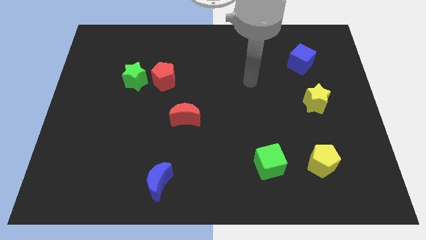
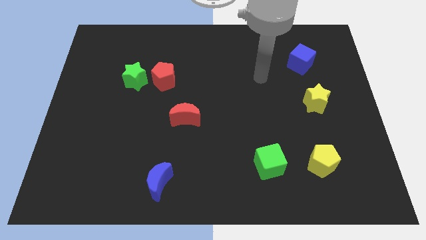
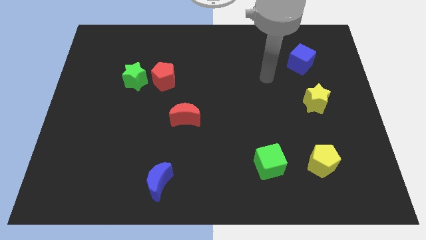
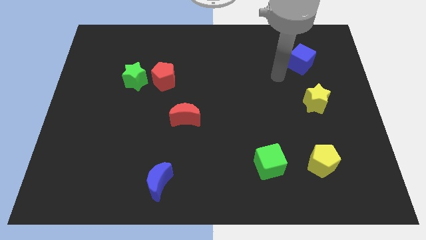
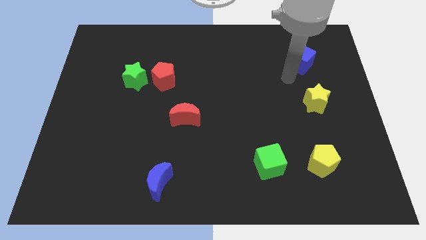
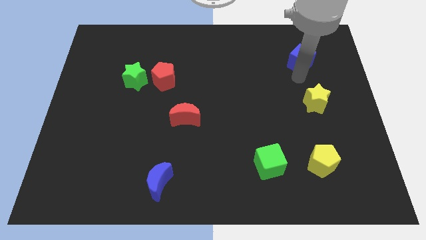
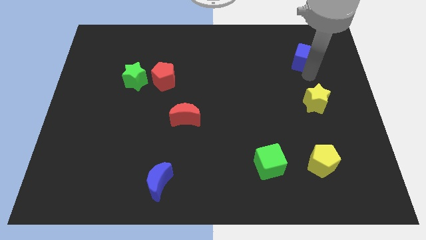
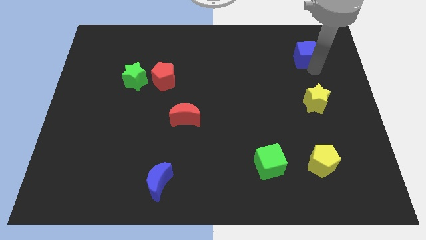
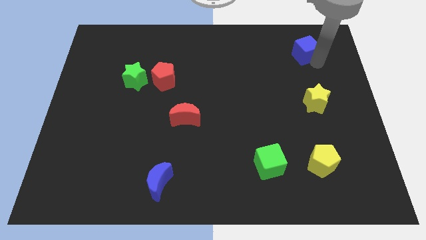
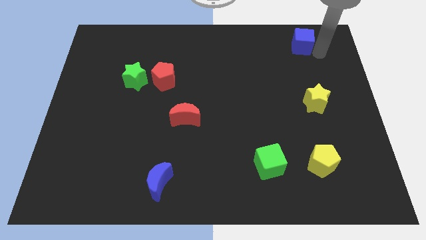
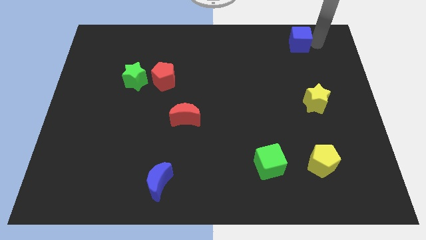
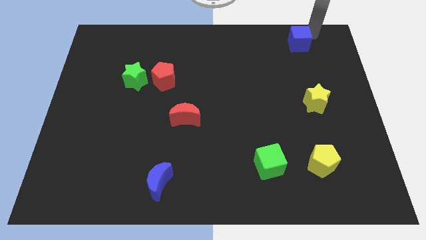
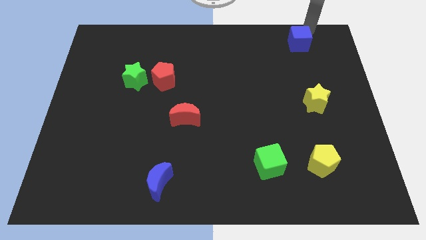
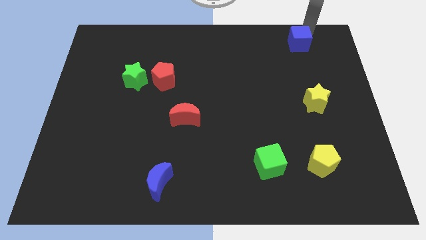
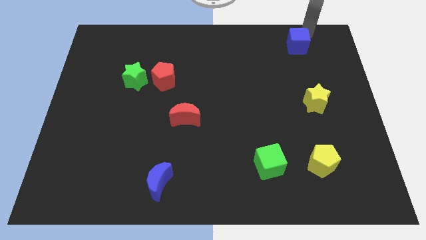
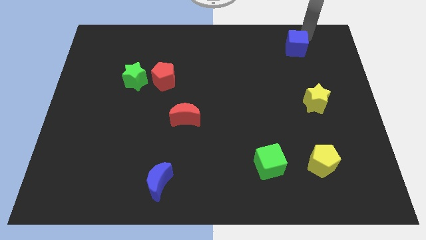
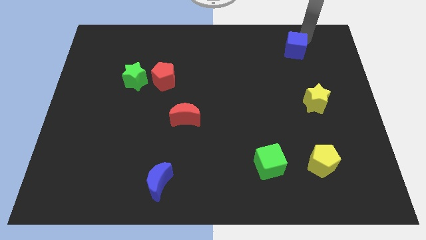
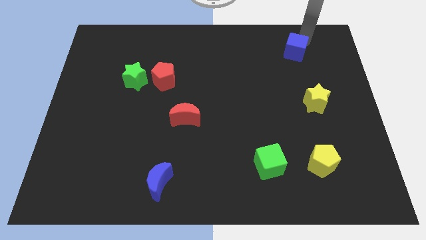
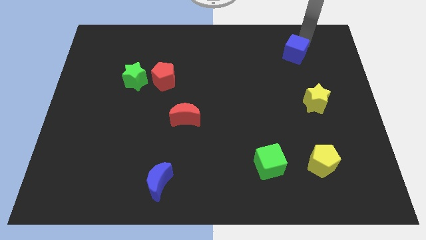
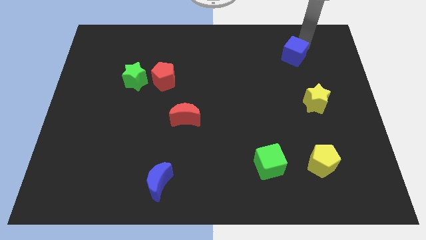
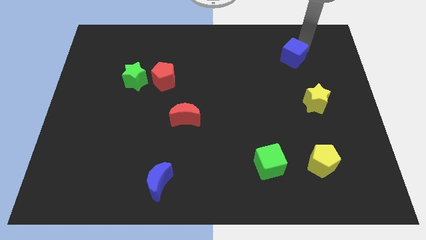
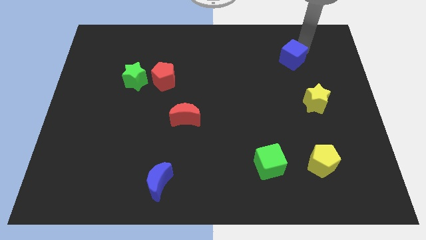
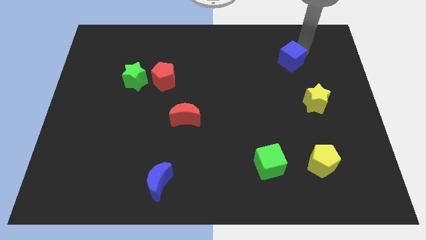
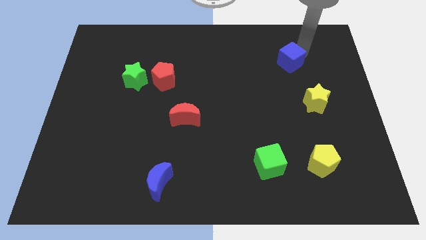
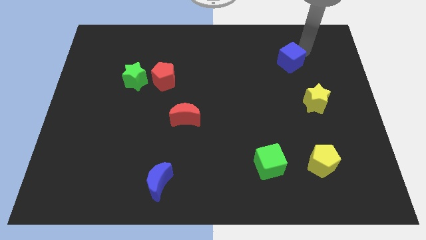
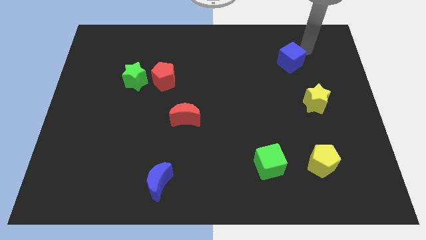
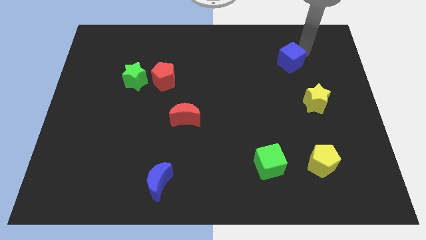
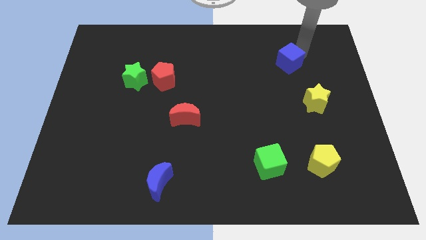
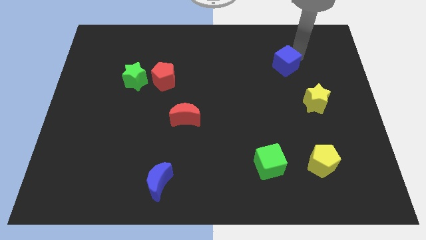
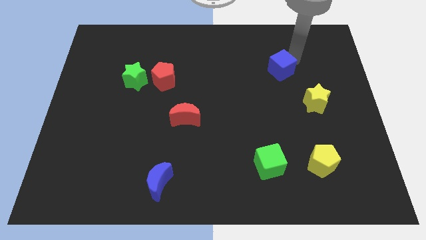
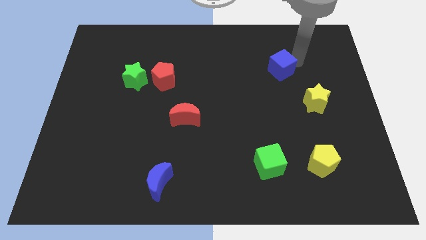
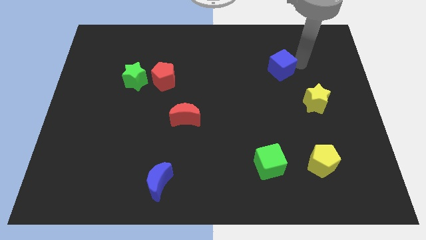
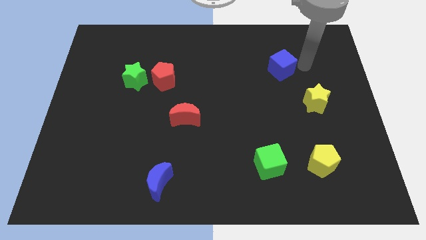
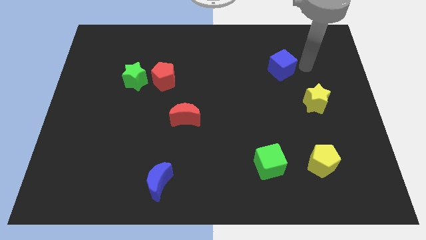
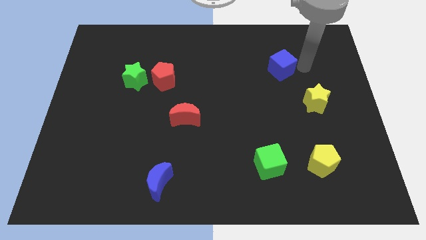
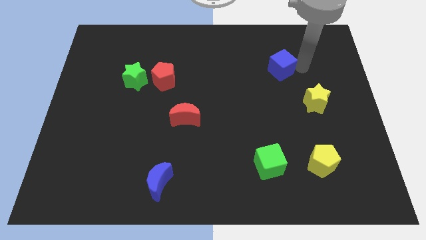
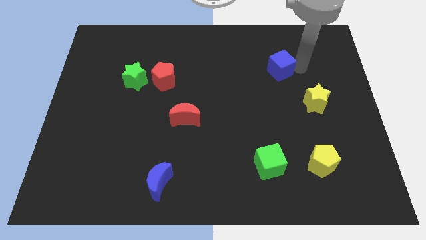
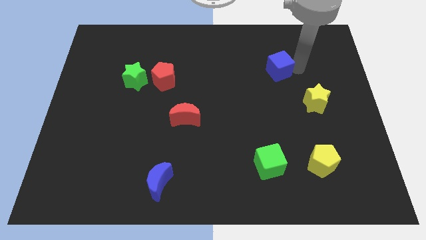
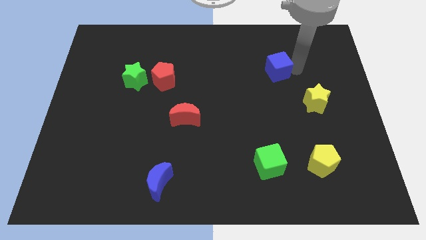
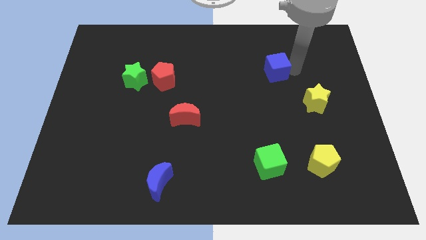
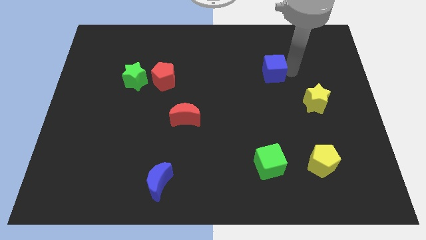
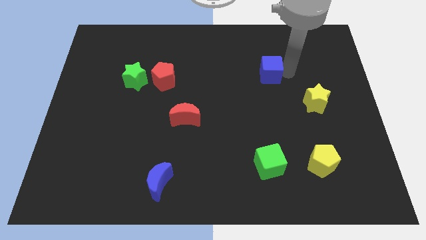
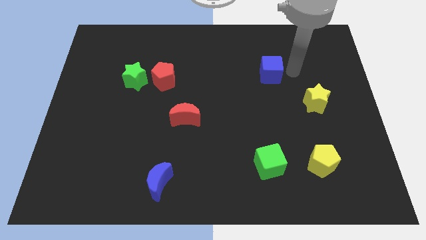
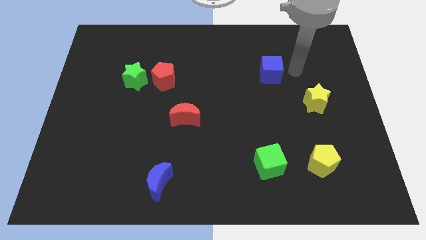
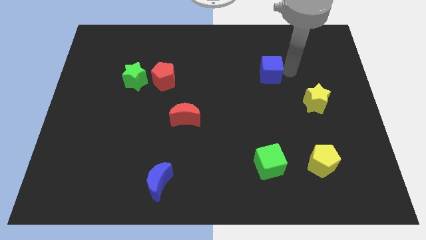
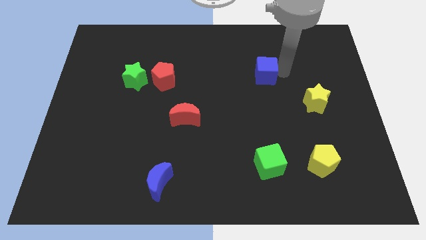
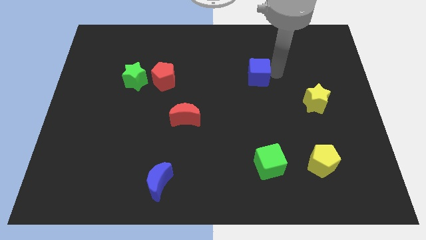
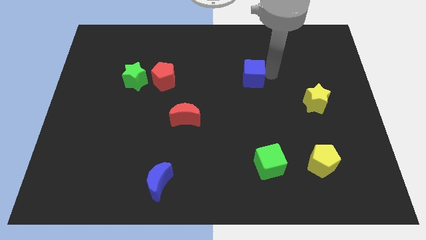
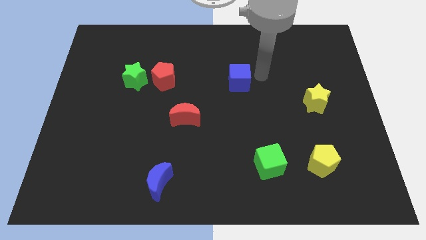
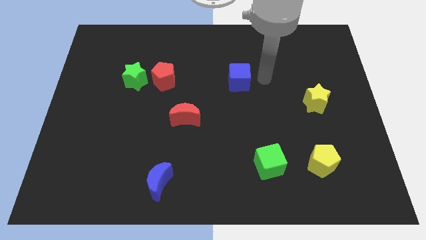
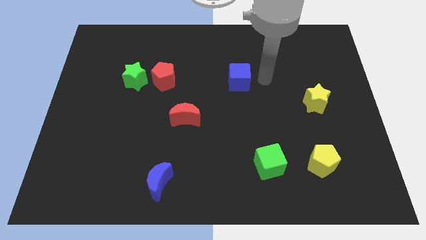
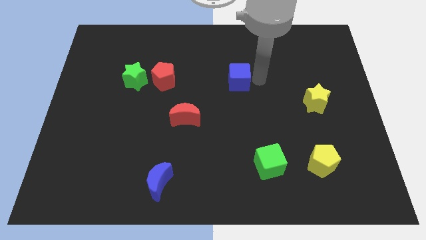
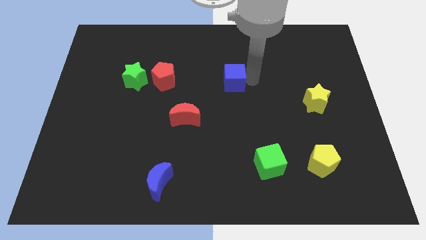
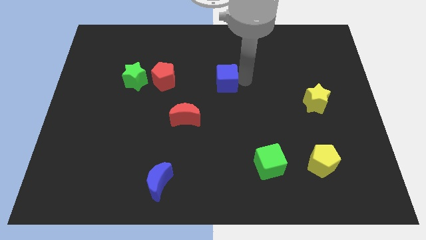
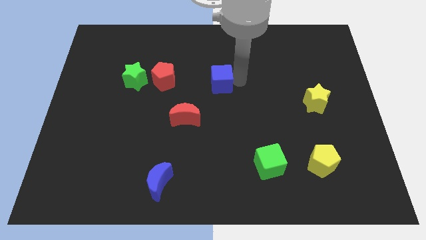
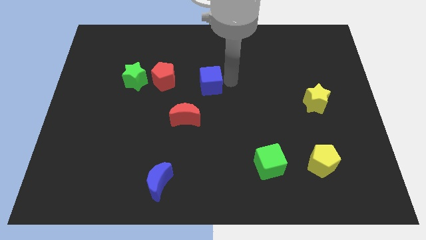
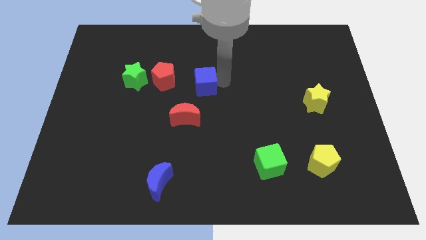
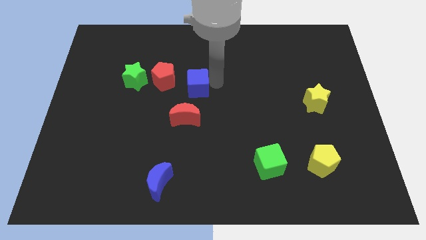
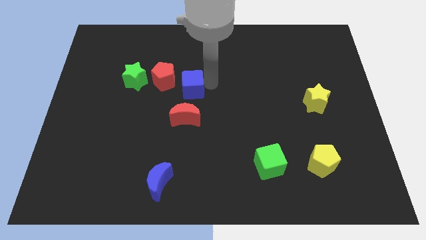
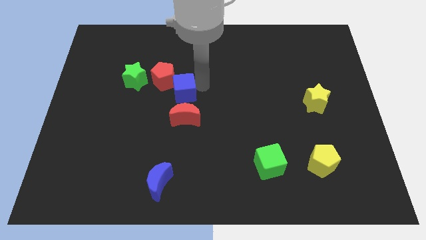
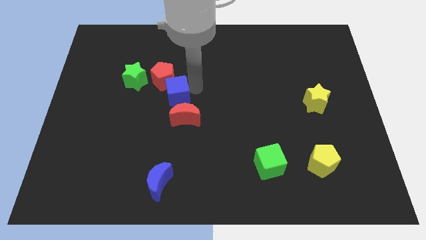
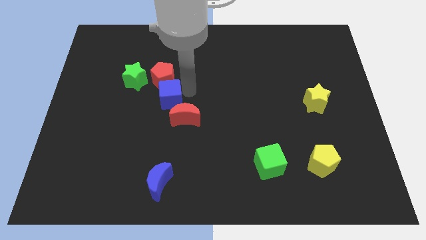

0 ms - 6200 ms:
push the blue cube to the bottom right side of the green star
